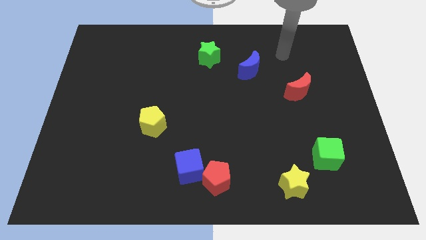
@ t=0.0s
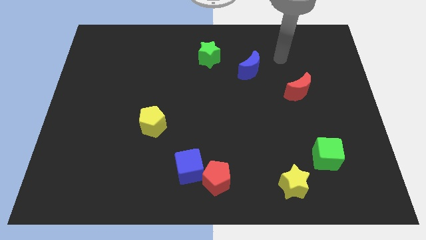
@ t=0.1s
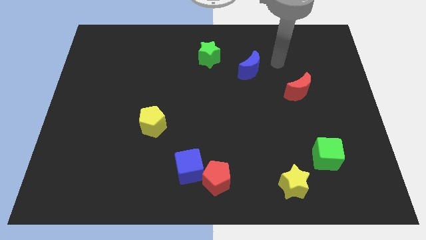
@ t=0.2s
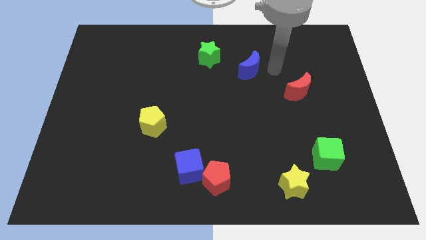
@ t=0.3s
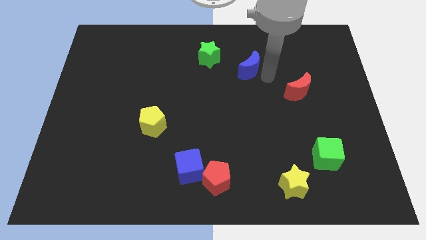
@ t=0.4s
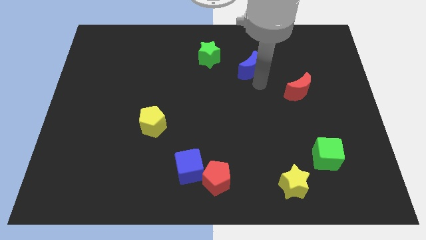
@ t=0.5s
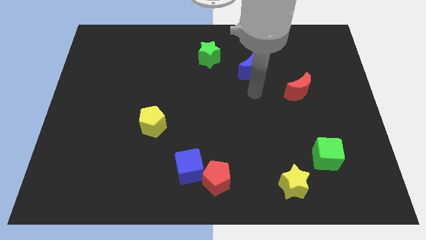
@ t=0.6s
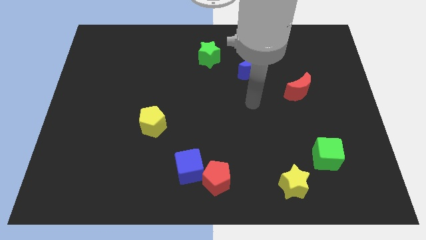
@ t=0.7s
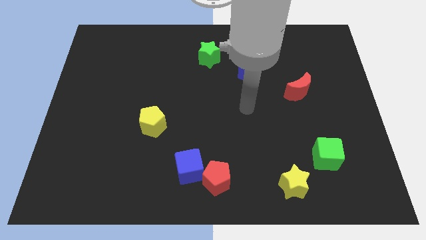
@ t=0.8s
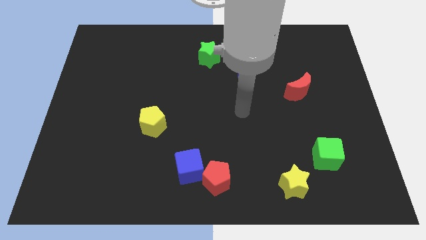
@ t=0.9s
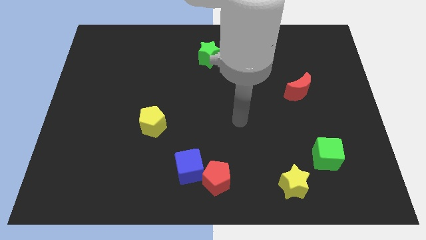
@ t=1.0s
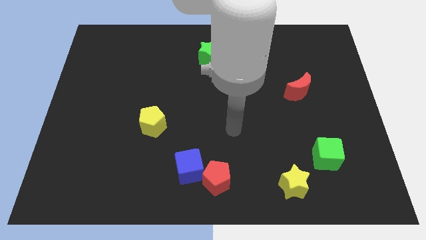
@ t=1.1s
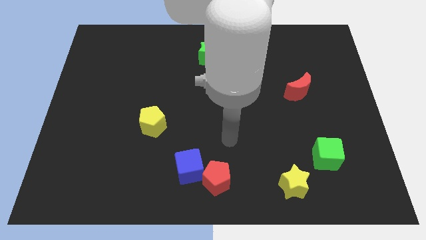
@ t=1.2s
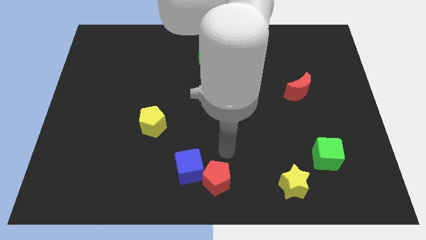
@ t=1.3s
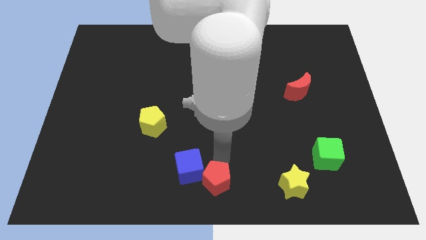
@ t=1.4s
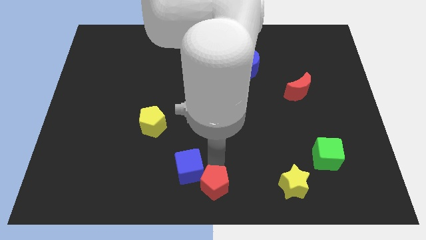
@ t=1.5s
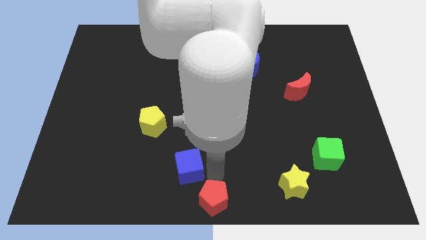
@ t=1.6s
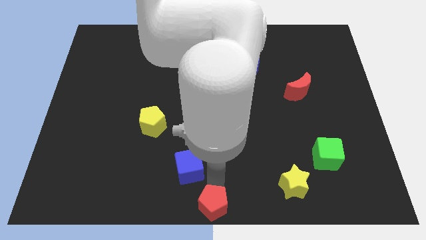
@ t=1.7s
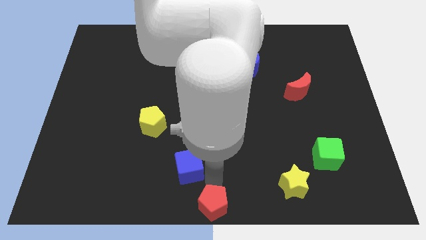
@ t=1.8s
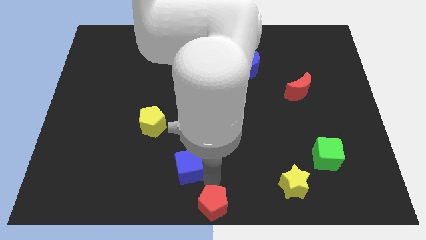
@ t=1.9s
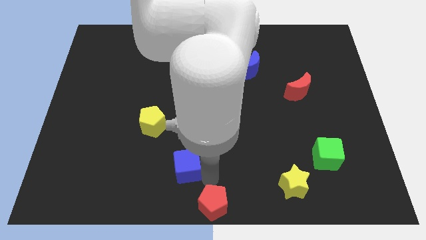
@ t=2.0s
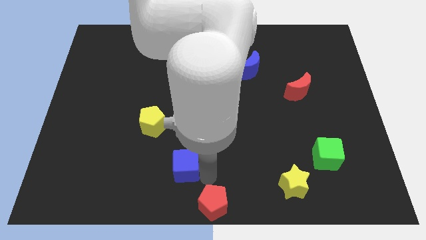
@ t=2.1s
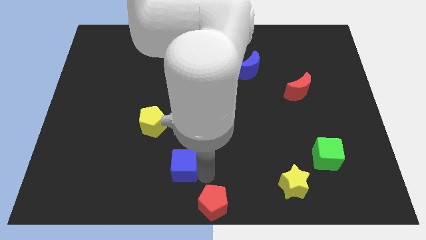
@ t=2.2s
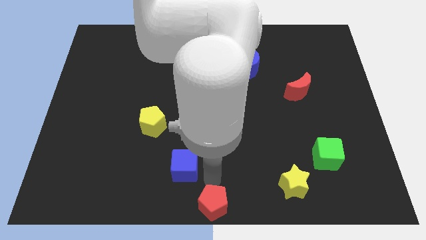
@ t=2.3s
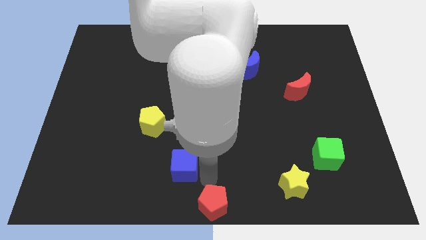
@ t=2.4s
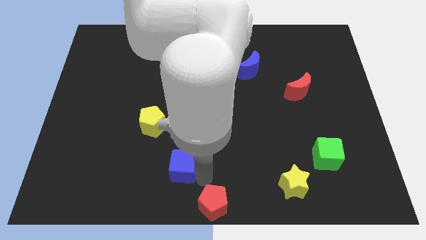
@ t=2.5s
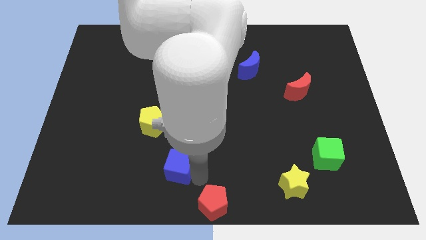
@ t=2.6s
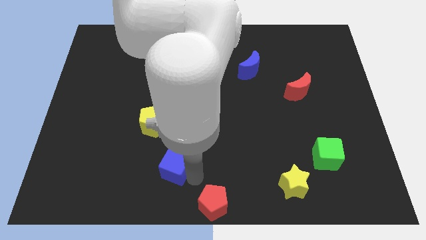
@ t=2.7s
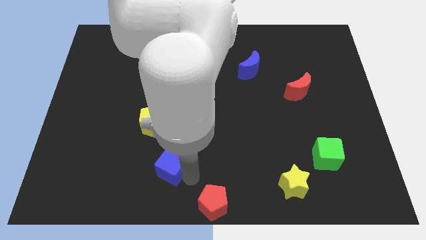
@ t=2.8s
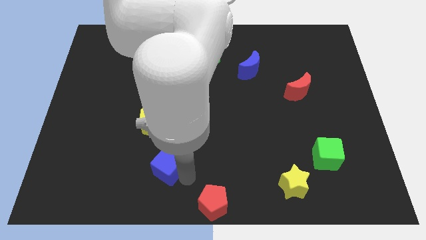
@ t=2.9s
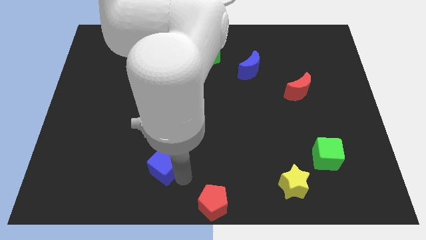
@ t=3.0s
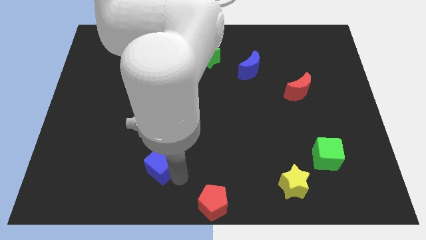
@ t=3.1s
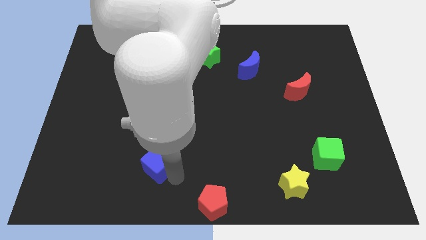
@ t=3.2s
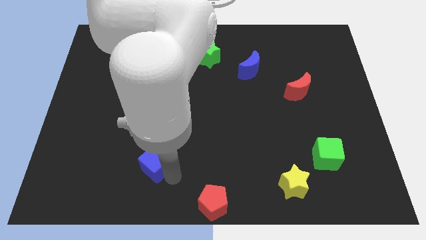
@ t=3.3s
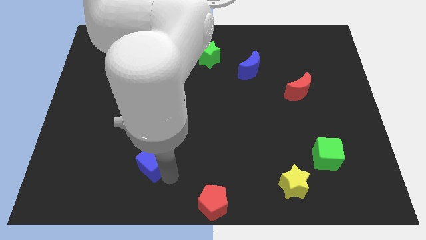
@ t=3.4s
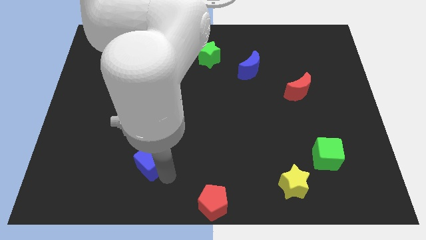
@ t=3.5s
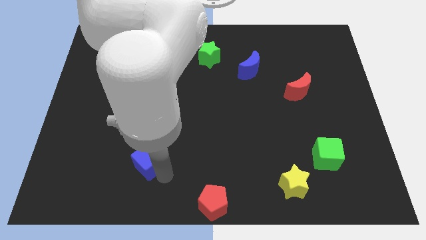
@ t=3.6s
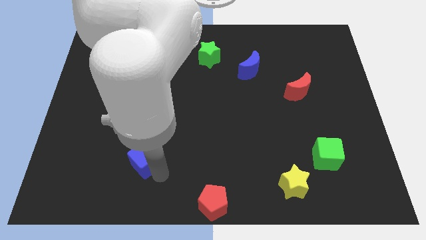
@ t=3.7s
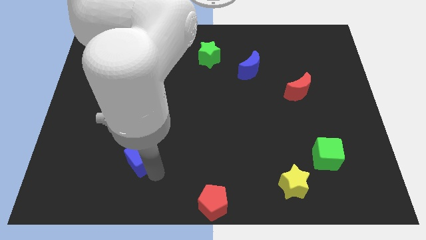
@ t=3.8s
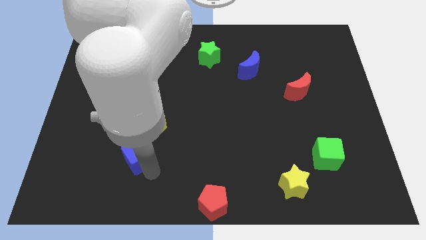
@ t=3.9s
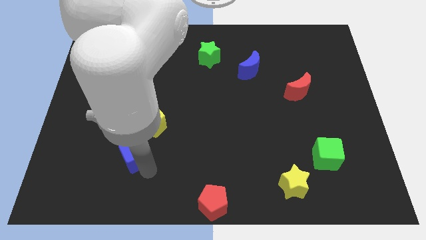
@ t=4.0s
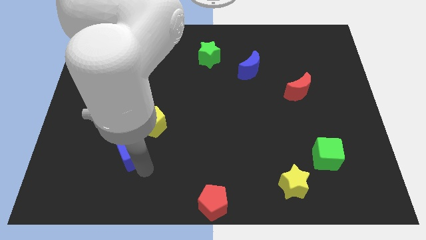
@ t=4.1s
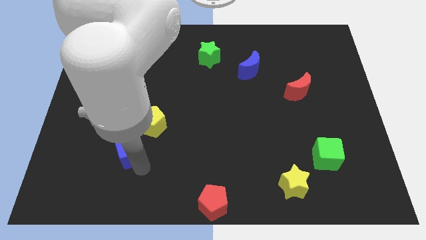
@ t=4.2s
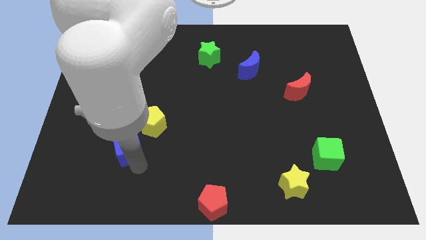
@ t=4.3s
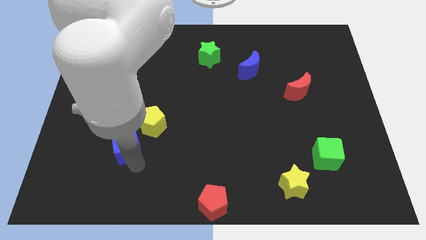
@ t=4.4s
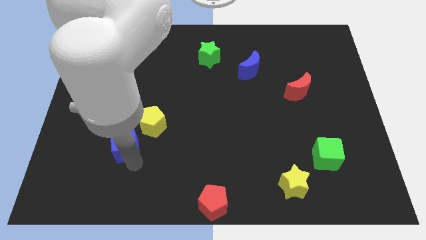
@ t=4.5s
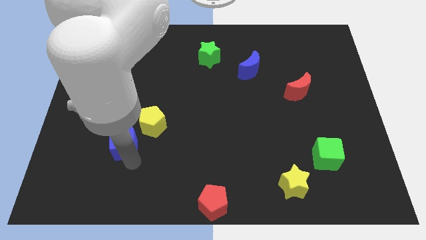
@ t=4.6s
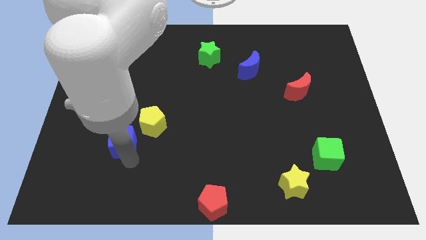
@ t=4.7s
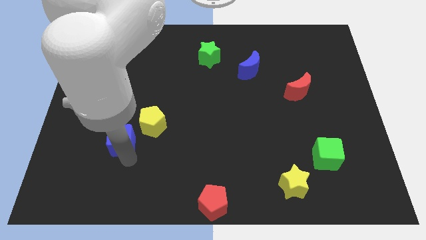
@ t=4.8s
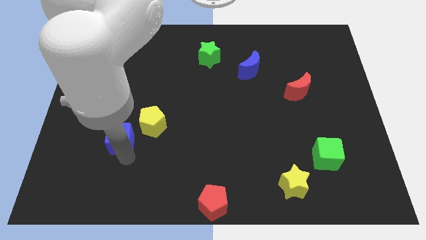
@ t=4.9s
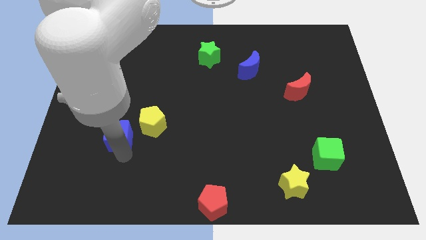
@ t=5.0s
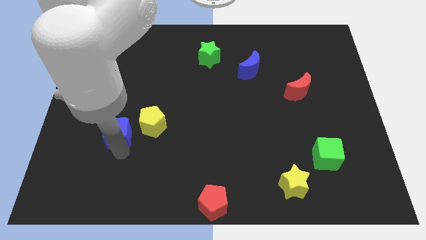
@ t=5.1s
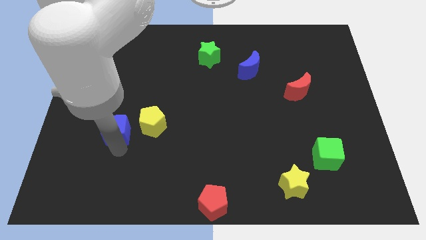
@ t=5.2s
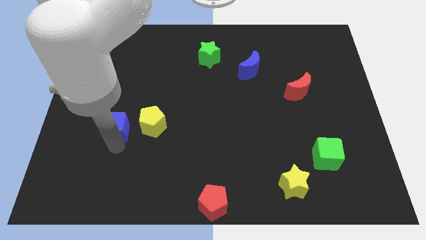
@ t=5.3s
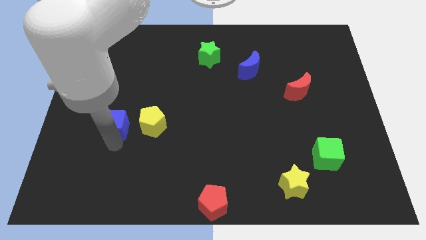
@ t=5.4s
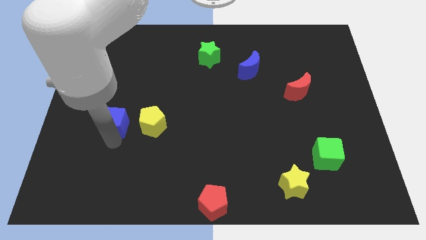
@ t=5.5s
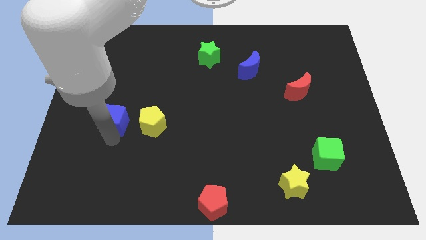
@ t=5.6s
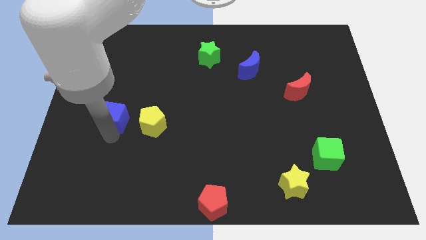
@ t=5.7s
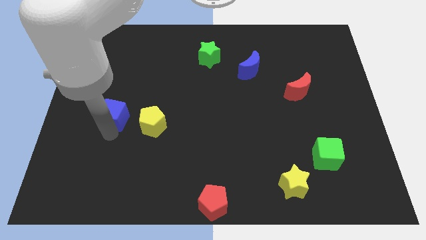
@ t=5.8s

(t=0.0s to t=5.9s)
slide the blue cube to the top left of the yellow pentagon

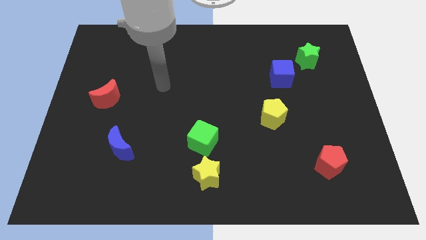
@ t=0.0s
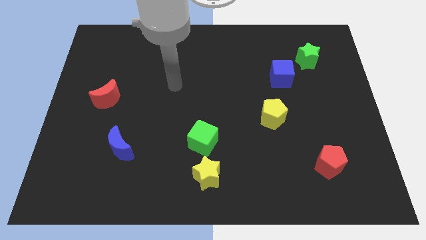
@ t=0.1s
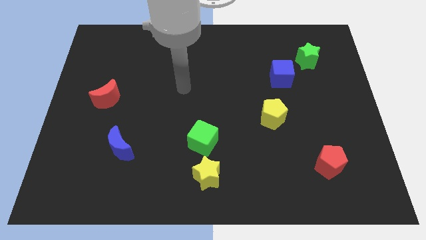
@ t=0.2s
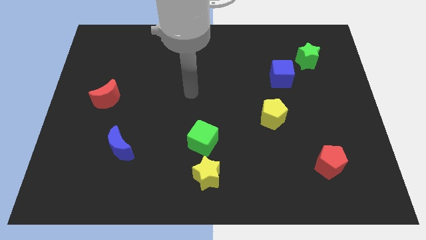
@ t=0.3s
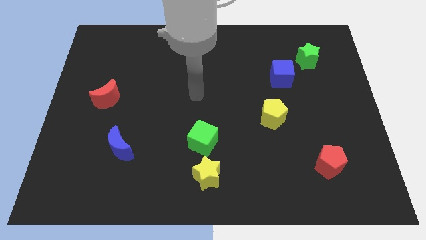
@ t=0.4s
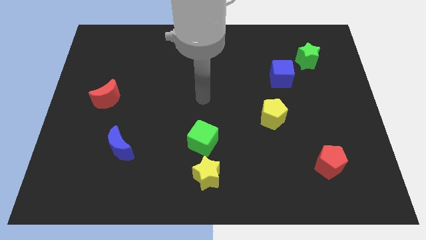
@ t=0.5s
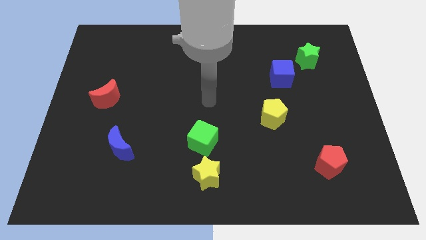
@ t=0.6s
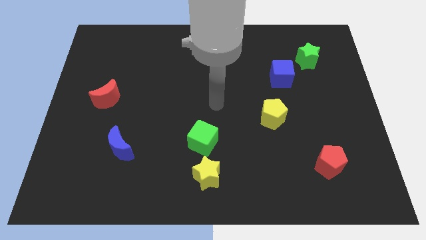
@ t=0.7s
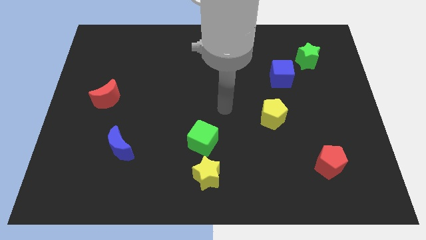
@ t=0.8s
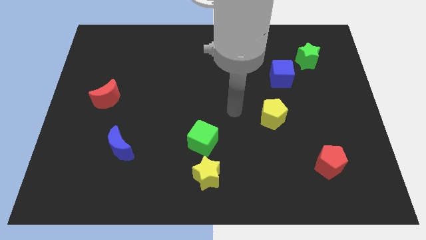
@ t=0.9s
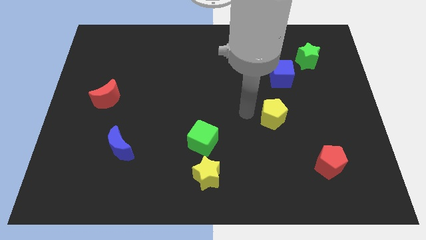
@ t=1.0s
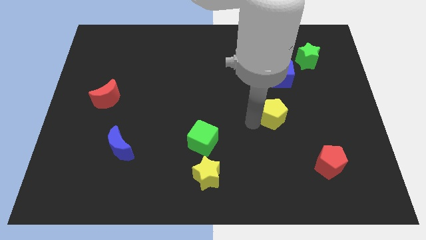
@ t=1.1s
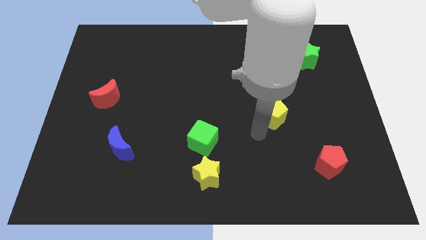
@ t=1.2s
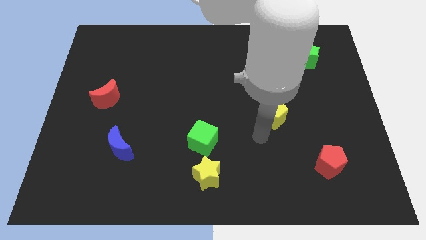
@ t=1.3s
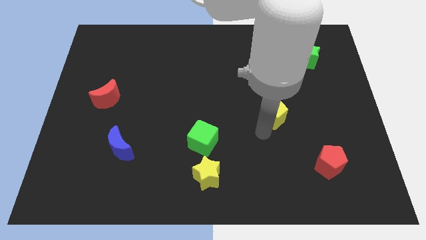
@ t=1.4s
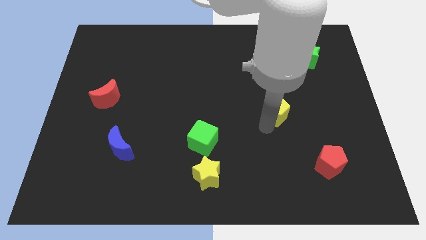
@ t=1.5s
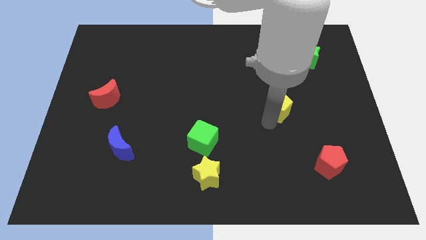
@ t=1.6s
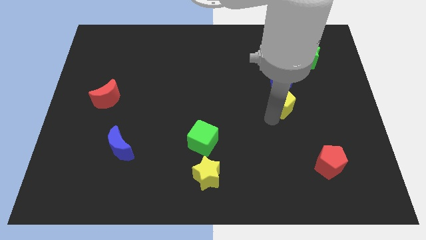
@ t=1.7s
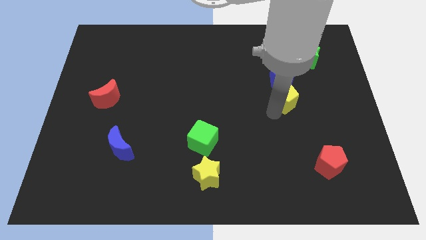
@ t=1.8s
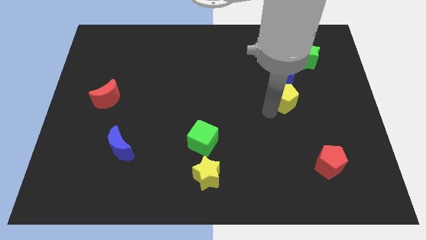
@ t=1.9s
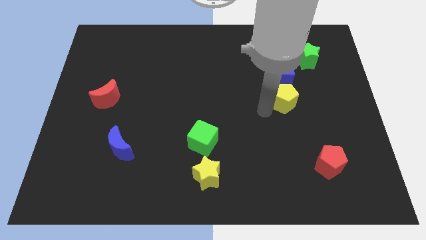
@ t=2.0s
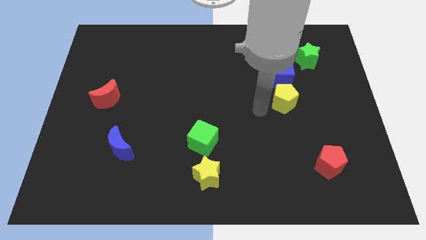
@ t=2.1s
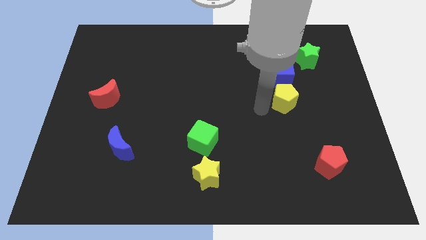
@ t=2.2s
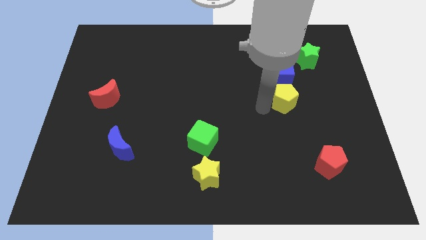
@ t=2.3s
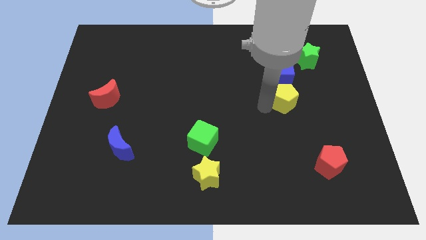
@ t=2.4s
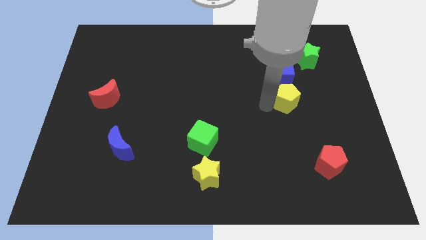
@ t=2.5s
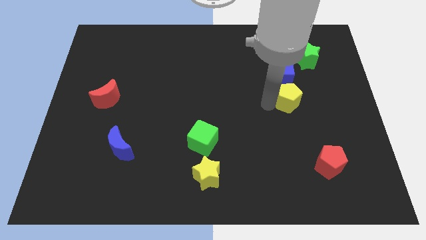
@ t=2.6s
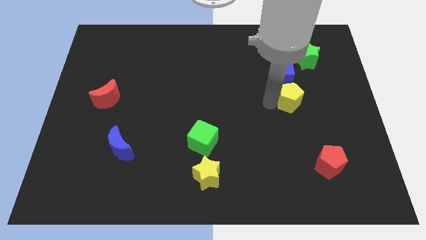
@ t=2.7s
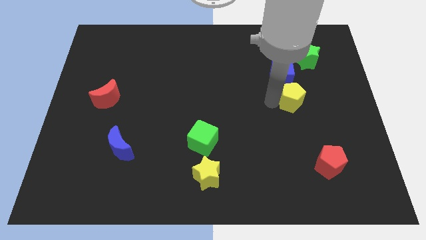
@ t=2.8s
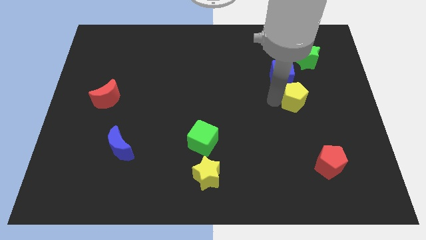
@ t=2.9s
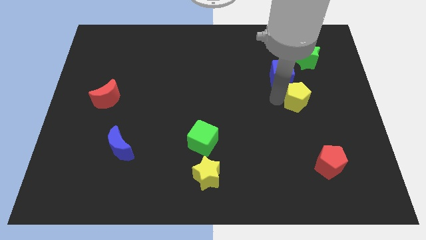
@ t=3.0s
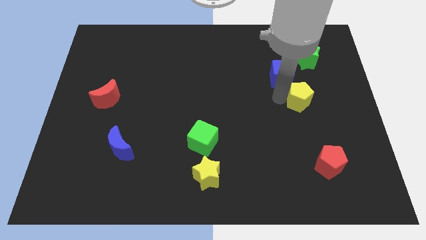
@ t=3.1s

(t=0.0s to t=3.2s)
move the yellow pentagon to the bottom side of the green star
